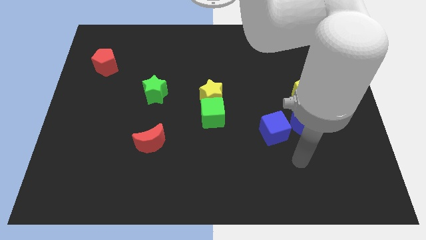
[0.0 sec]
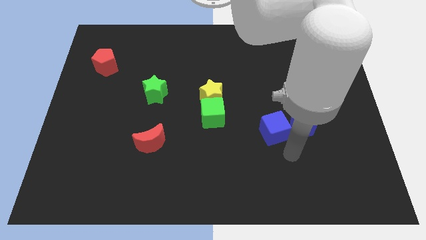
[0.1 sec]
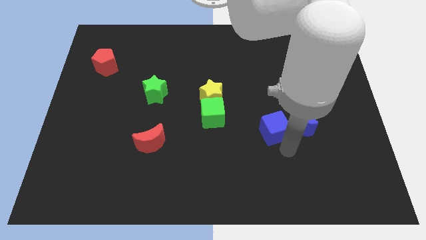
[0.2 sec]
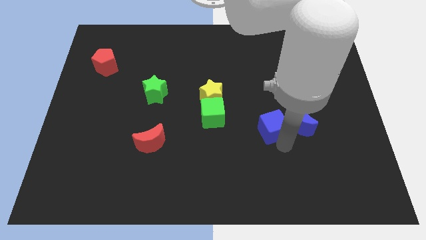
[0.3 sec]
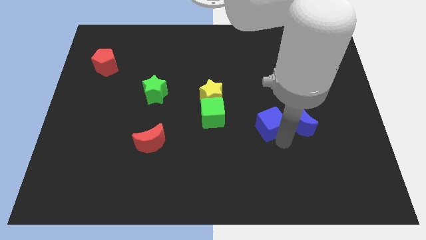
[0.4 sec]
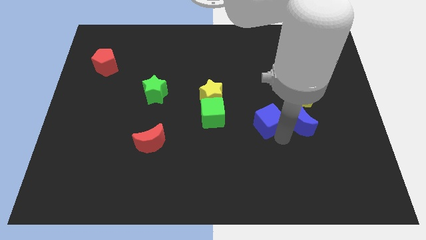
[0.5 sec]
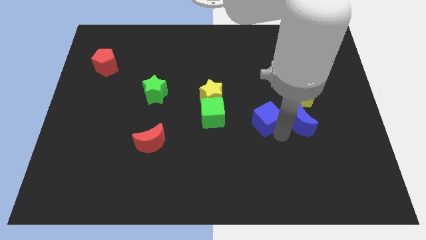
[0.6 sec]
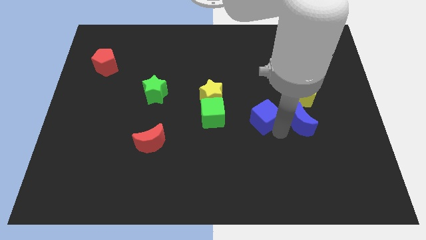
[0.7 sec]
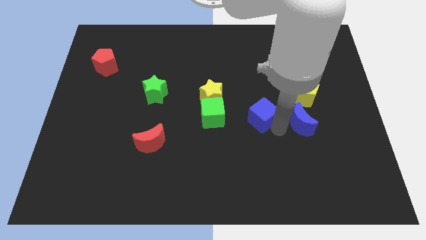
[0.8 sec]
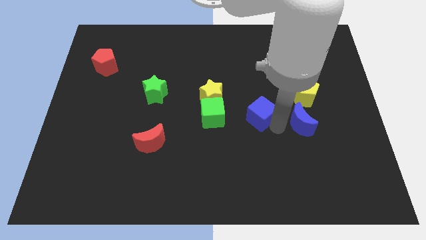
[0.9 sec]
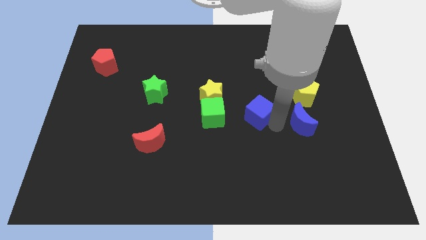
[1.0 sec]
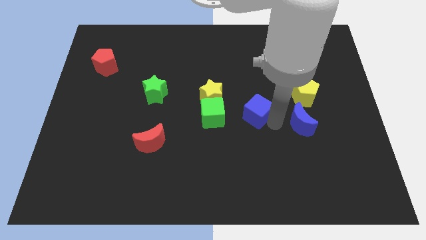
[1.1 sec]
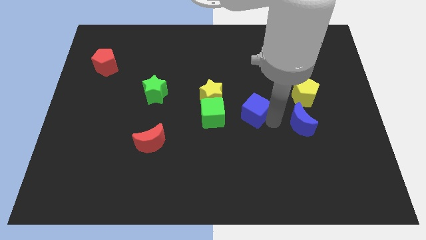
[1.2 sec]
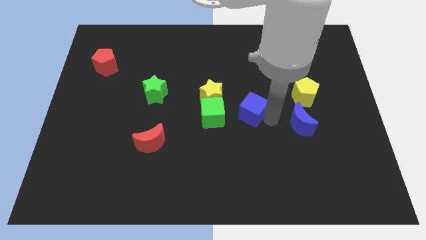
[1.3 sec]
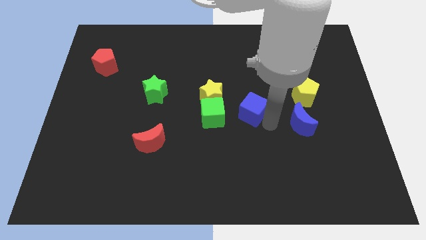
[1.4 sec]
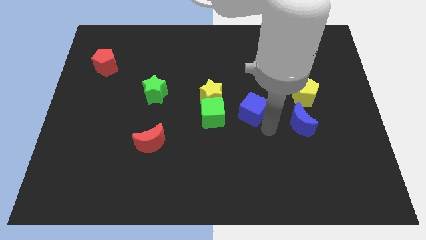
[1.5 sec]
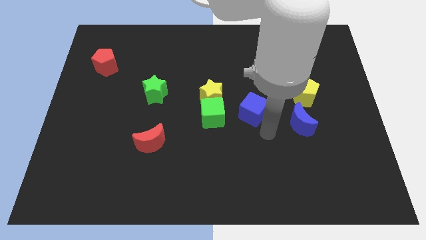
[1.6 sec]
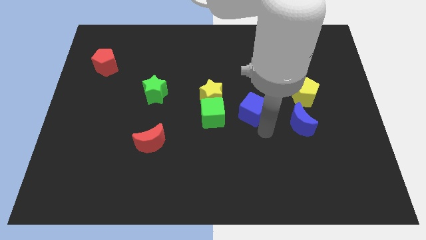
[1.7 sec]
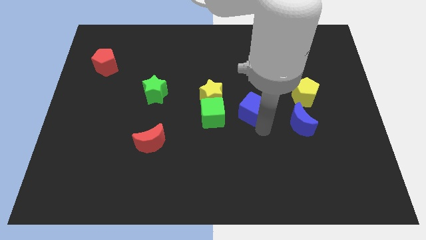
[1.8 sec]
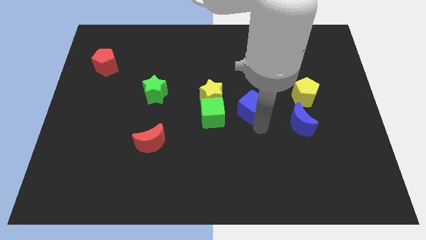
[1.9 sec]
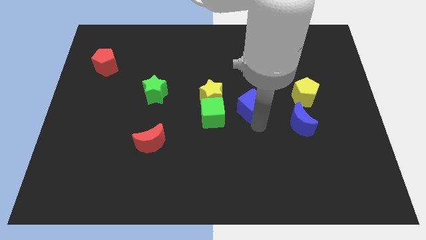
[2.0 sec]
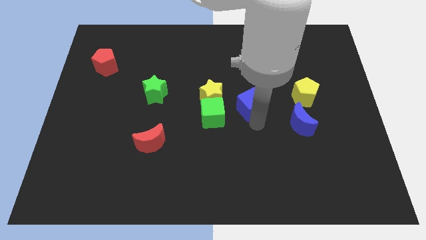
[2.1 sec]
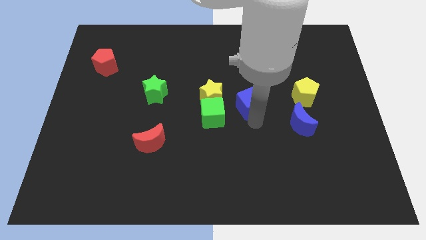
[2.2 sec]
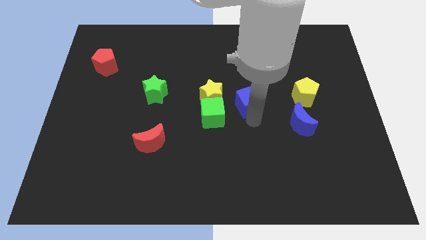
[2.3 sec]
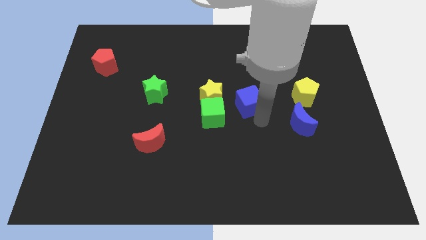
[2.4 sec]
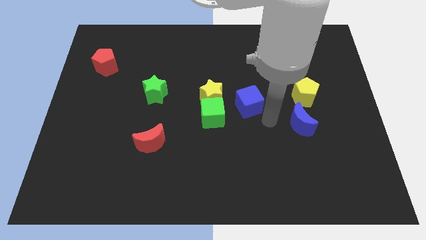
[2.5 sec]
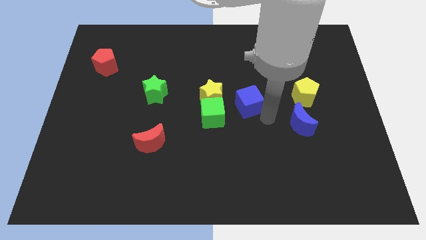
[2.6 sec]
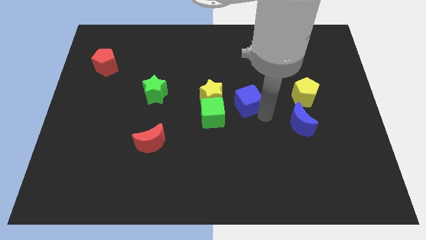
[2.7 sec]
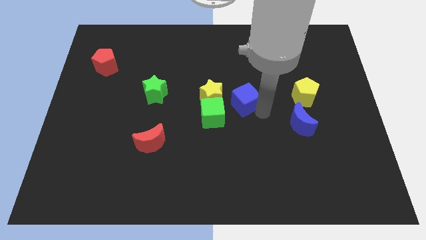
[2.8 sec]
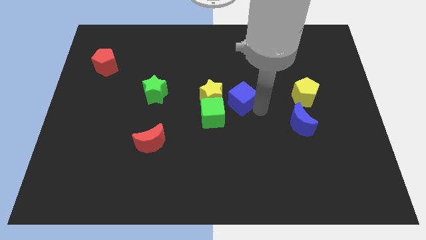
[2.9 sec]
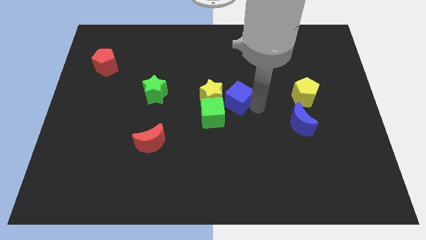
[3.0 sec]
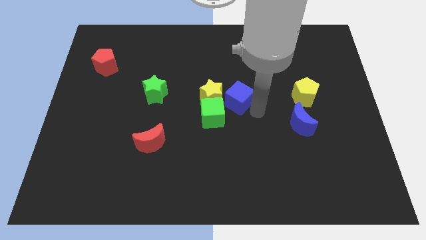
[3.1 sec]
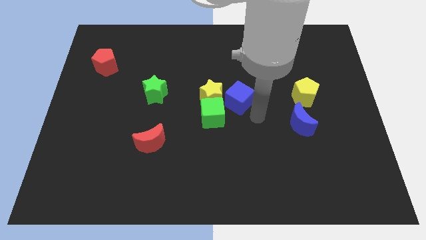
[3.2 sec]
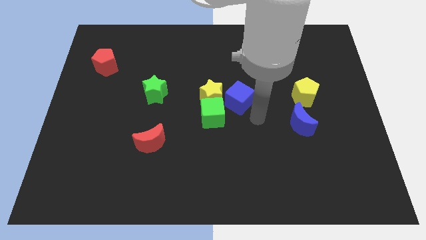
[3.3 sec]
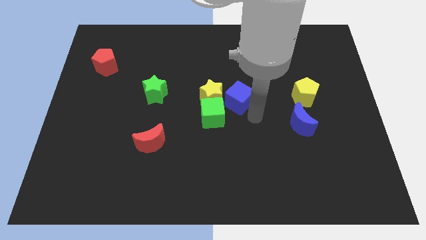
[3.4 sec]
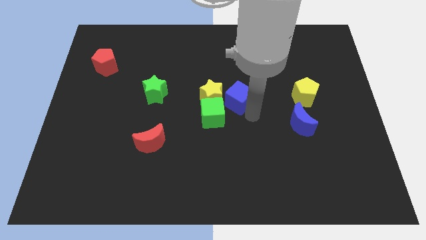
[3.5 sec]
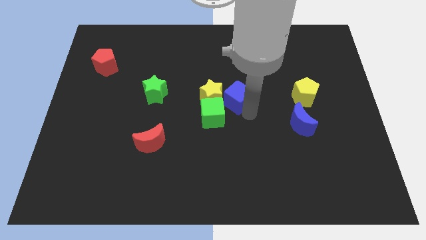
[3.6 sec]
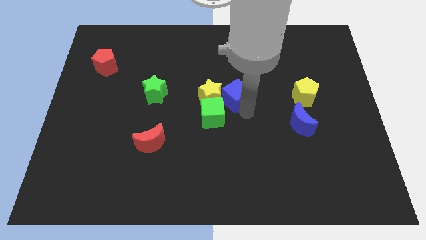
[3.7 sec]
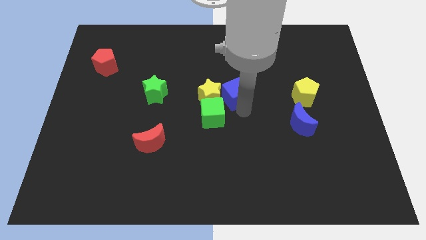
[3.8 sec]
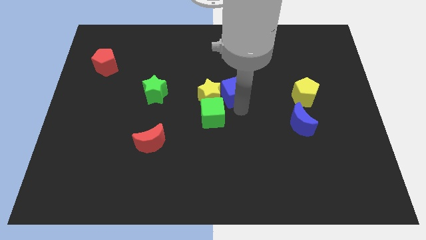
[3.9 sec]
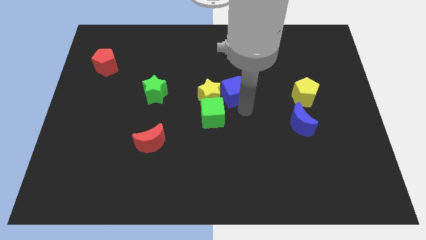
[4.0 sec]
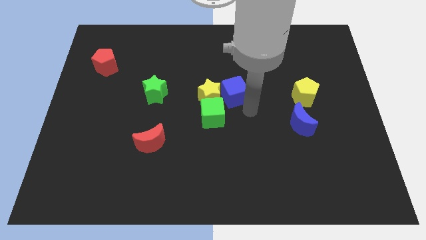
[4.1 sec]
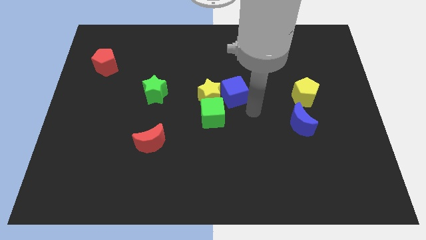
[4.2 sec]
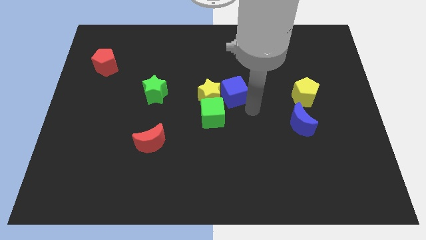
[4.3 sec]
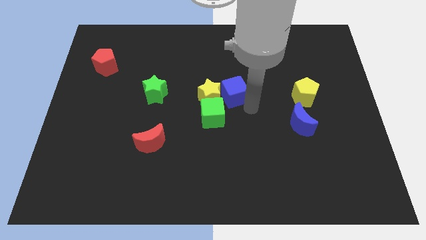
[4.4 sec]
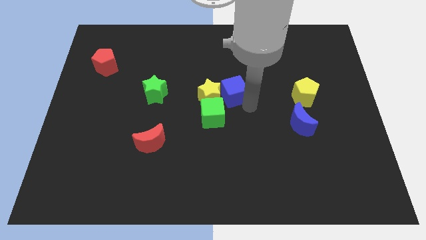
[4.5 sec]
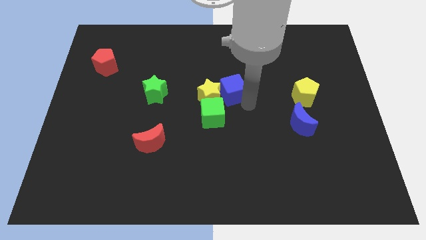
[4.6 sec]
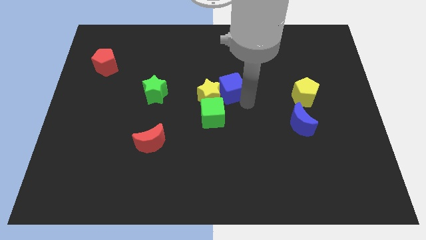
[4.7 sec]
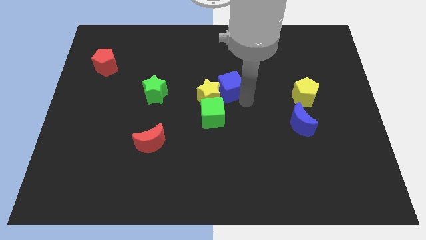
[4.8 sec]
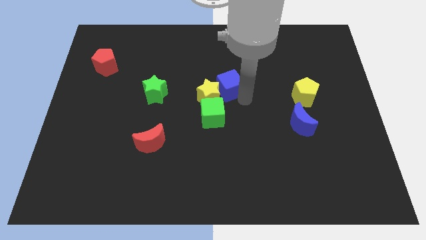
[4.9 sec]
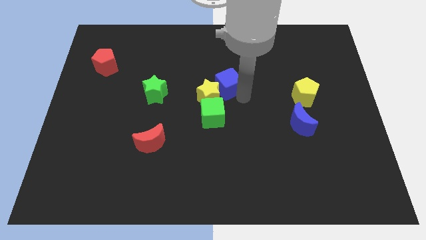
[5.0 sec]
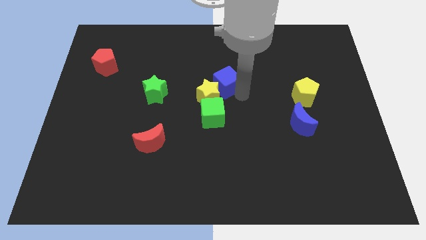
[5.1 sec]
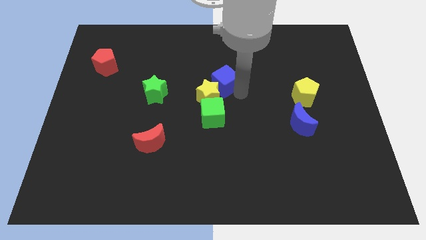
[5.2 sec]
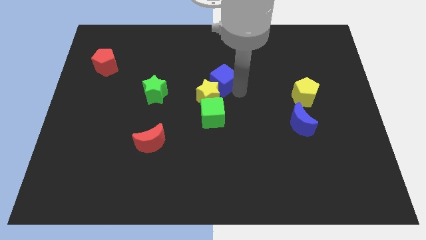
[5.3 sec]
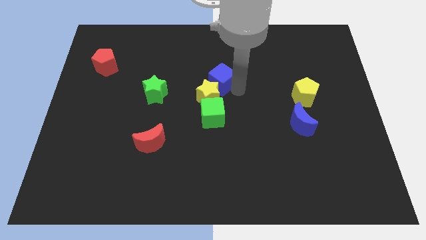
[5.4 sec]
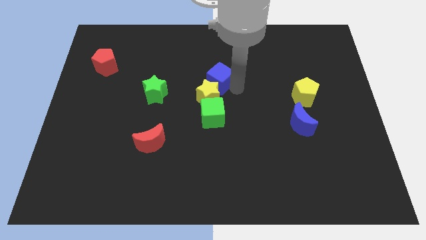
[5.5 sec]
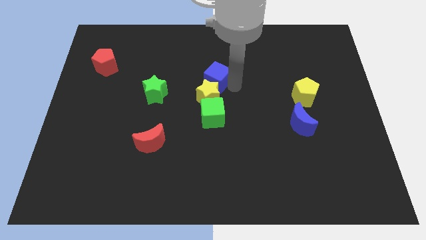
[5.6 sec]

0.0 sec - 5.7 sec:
slide the blue cube upwards and then to the left

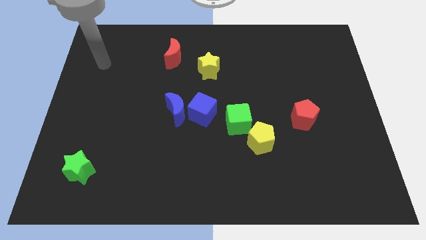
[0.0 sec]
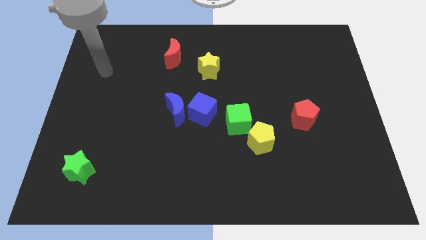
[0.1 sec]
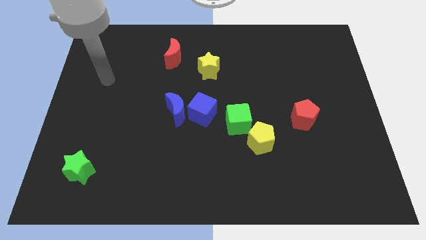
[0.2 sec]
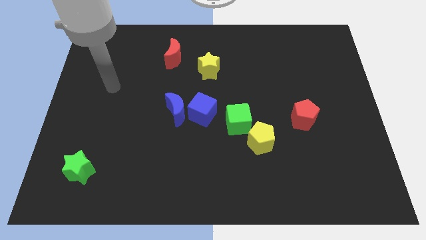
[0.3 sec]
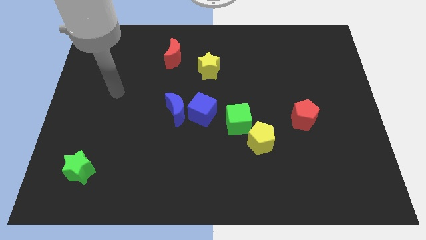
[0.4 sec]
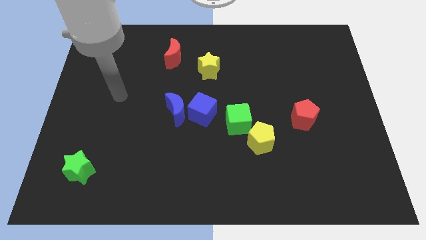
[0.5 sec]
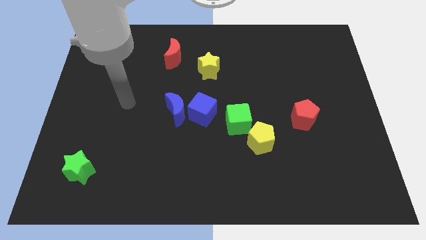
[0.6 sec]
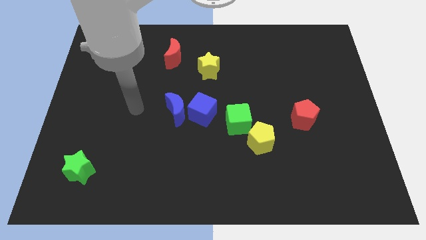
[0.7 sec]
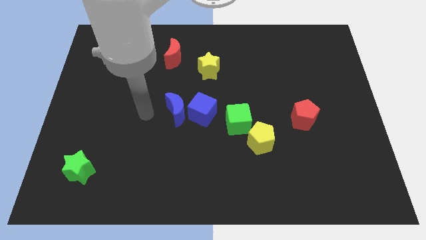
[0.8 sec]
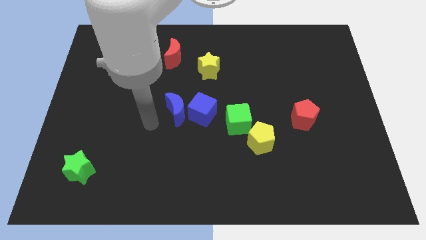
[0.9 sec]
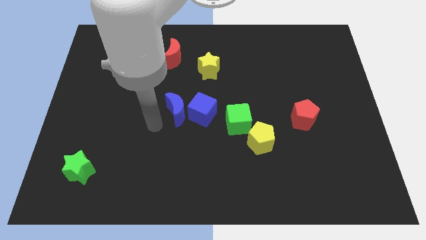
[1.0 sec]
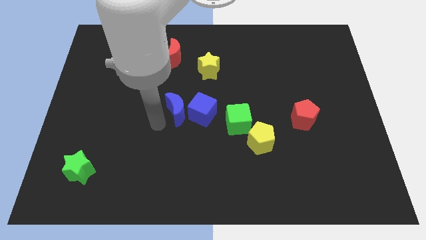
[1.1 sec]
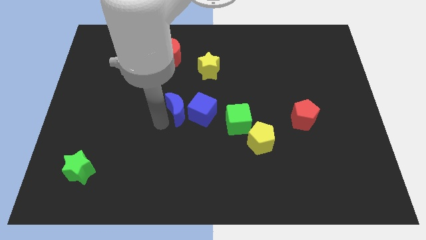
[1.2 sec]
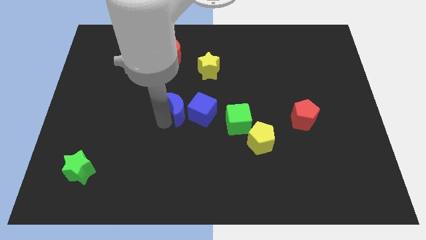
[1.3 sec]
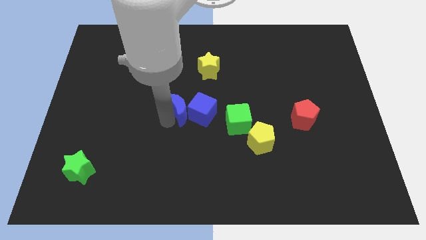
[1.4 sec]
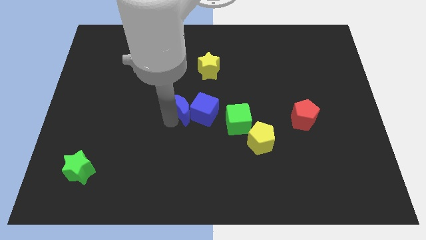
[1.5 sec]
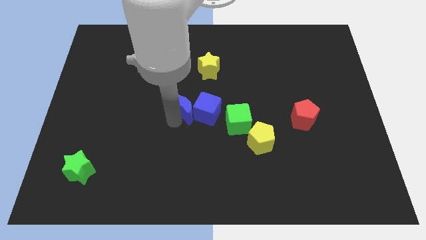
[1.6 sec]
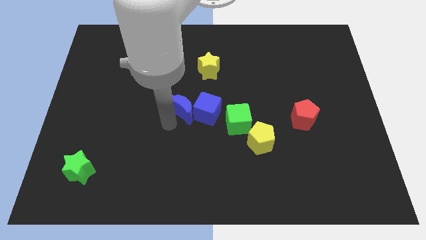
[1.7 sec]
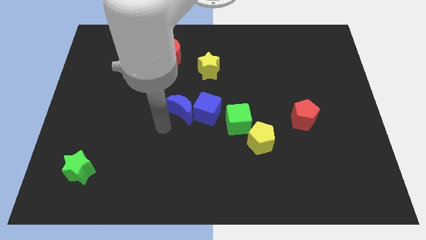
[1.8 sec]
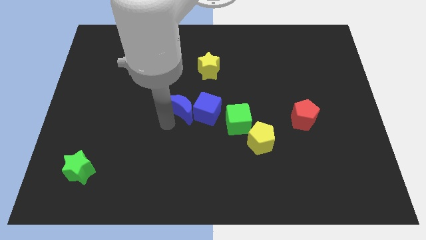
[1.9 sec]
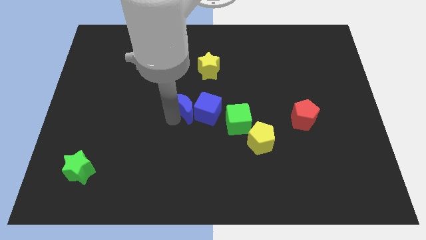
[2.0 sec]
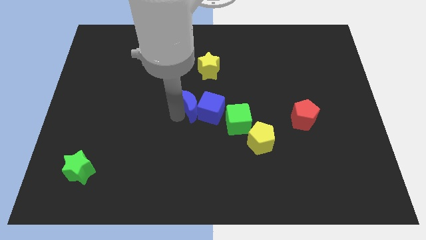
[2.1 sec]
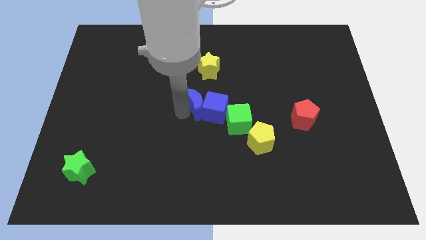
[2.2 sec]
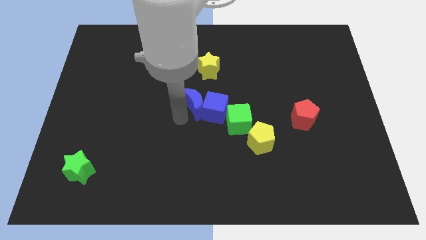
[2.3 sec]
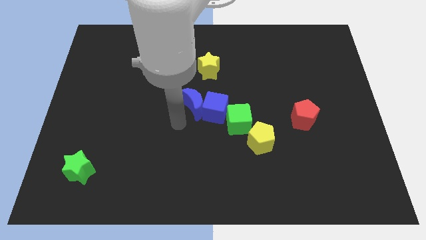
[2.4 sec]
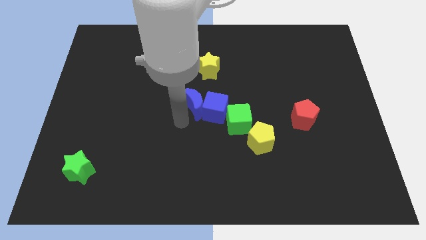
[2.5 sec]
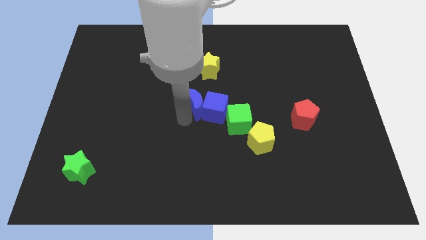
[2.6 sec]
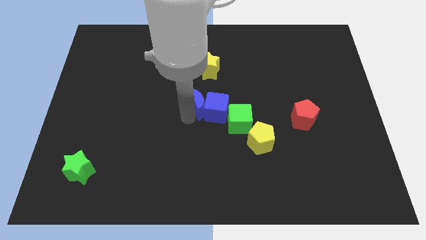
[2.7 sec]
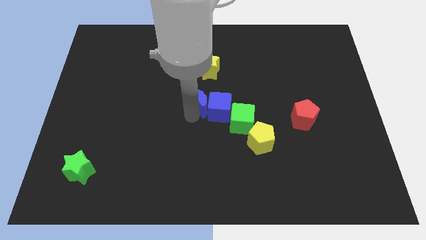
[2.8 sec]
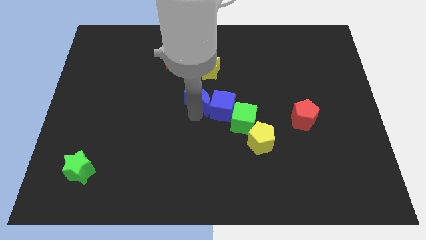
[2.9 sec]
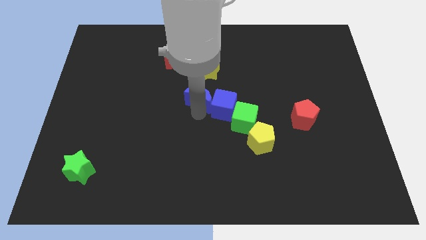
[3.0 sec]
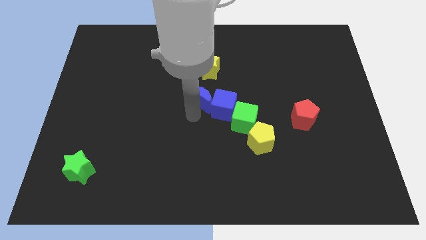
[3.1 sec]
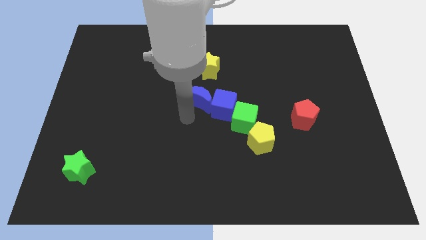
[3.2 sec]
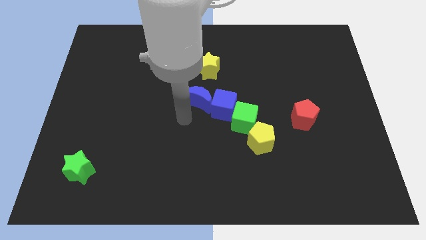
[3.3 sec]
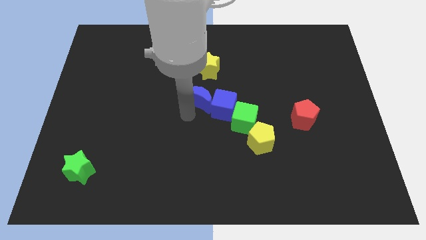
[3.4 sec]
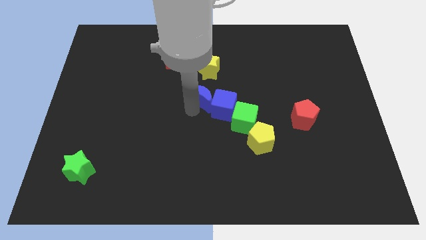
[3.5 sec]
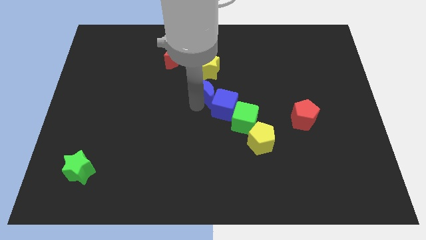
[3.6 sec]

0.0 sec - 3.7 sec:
slide the blue moon somewhat diagonally up and right
